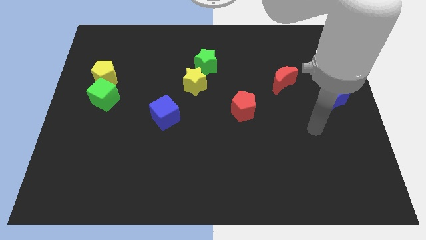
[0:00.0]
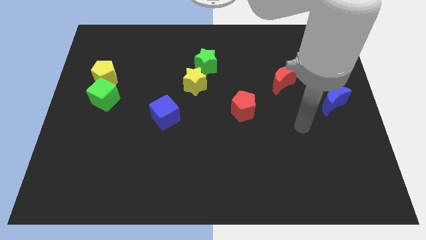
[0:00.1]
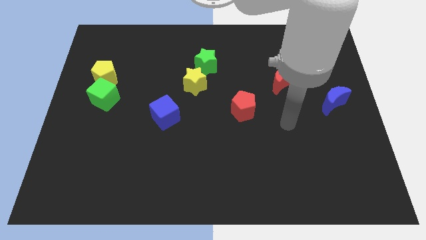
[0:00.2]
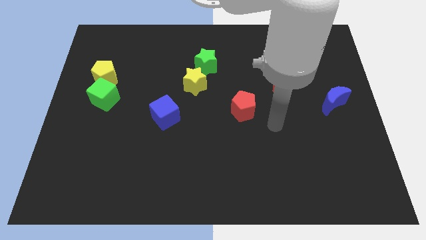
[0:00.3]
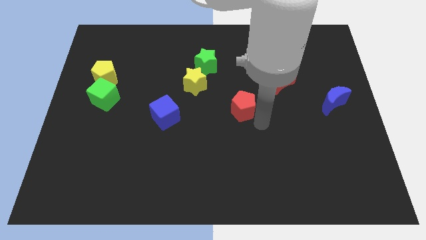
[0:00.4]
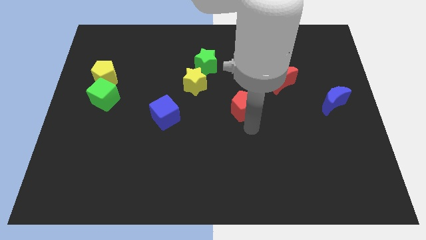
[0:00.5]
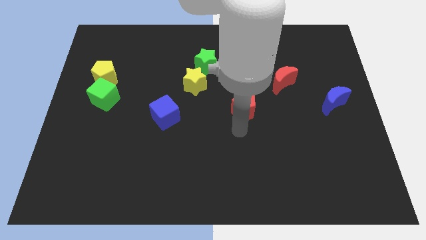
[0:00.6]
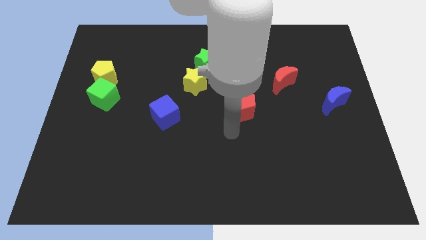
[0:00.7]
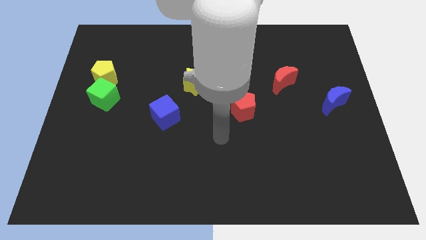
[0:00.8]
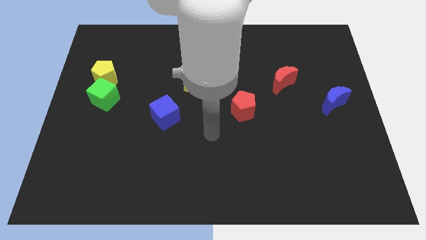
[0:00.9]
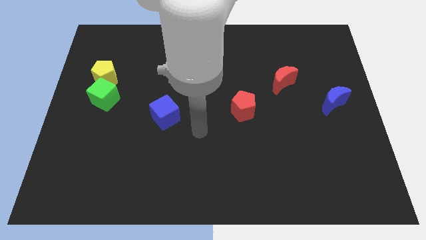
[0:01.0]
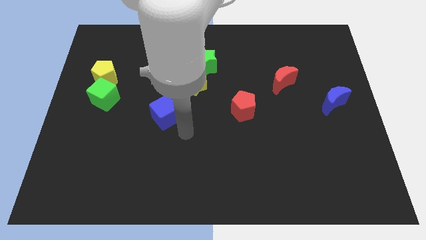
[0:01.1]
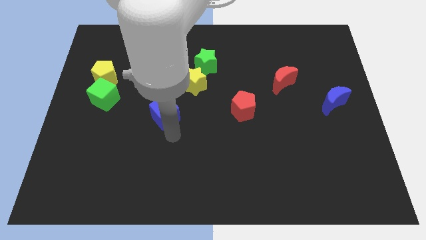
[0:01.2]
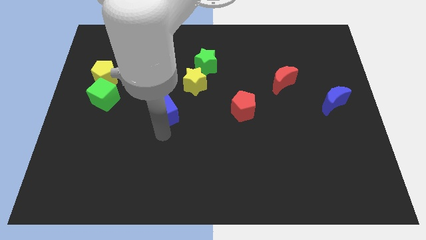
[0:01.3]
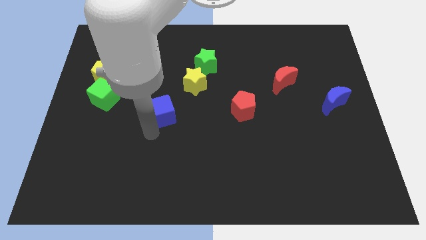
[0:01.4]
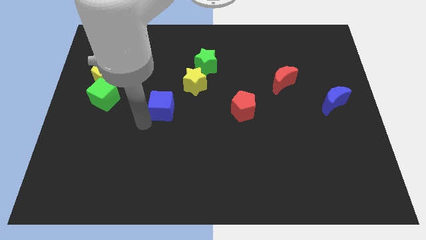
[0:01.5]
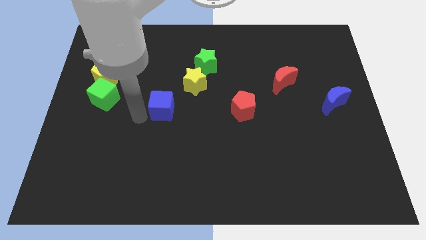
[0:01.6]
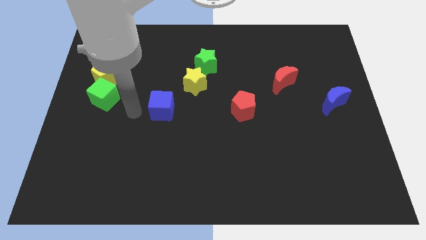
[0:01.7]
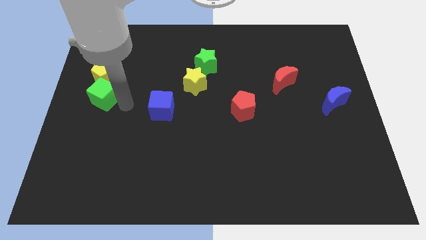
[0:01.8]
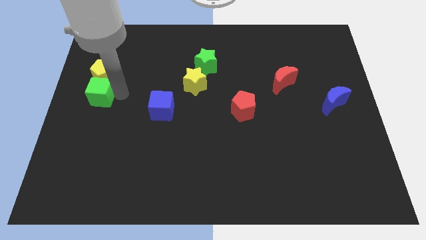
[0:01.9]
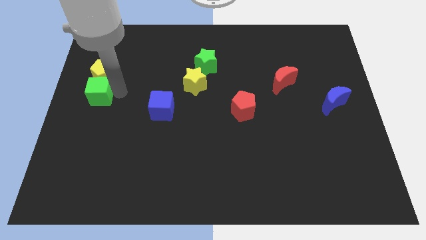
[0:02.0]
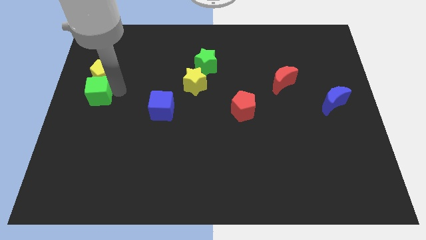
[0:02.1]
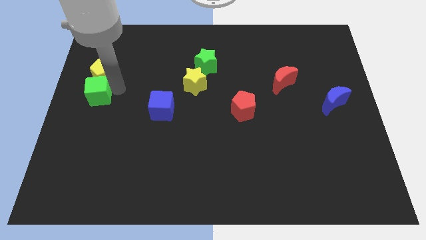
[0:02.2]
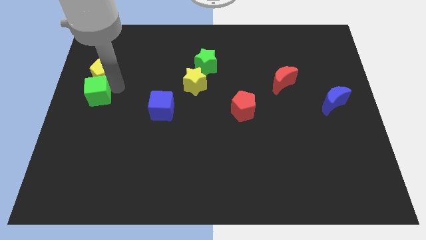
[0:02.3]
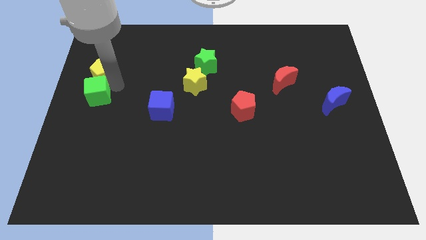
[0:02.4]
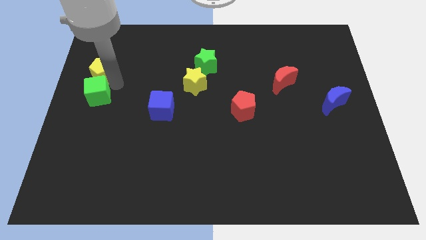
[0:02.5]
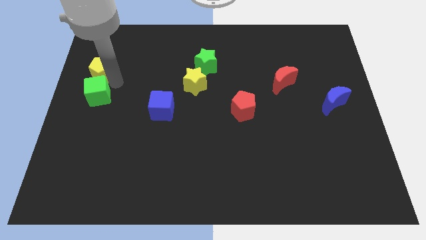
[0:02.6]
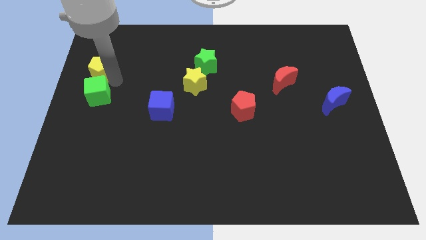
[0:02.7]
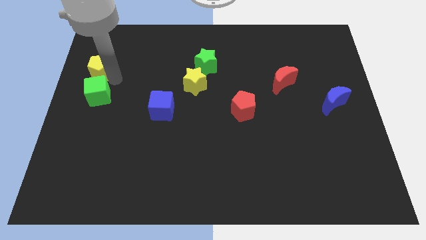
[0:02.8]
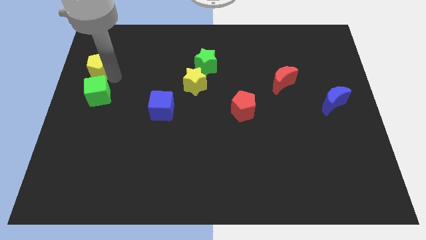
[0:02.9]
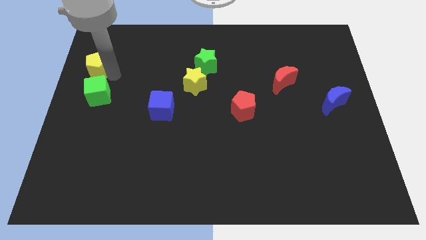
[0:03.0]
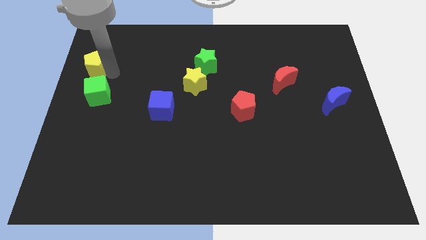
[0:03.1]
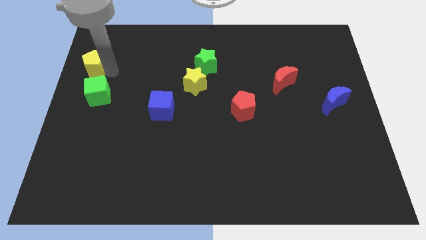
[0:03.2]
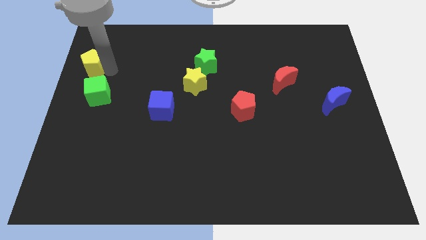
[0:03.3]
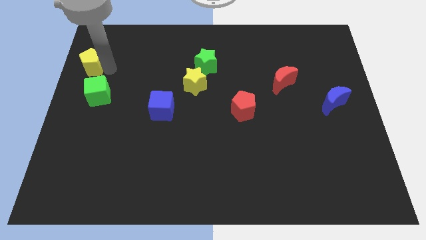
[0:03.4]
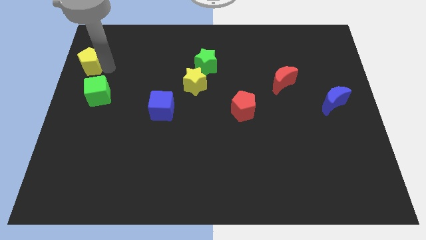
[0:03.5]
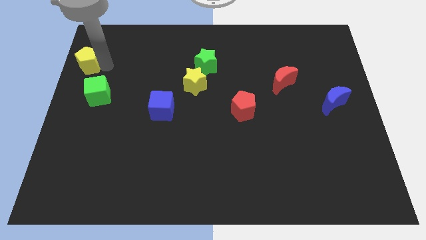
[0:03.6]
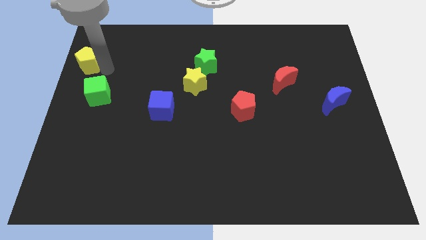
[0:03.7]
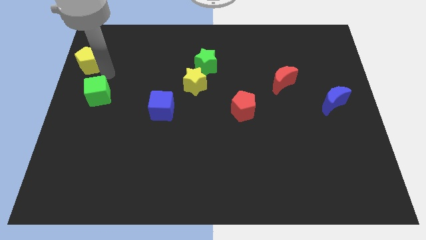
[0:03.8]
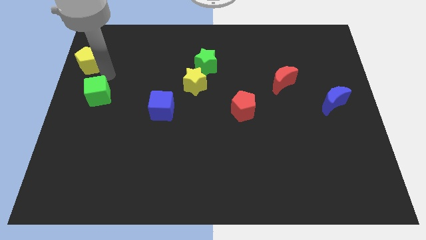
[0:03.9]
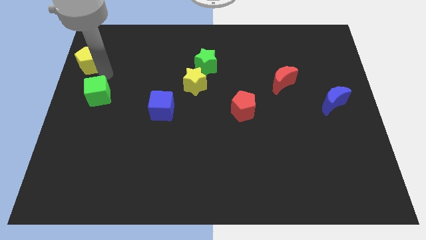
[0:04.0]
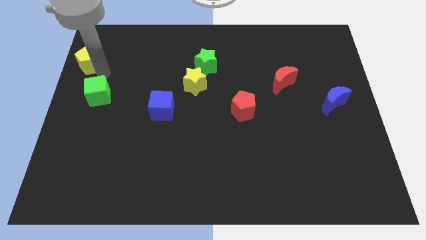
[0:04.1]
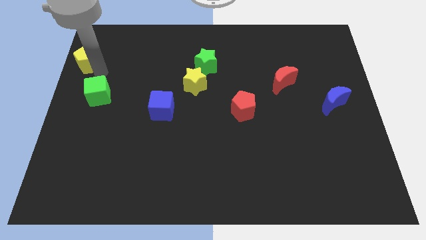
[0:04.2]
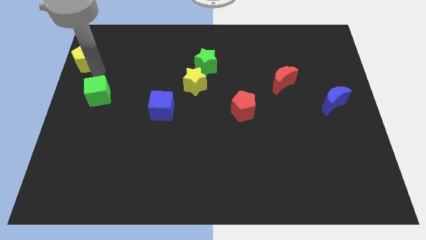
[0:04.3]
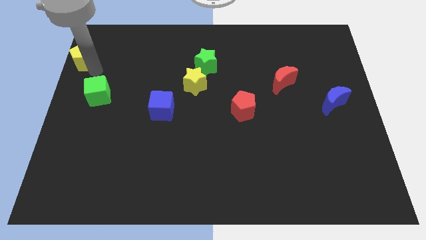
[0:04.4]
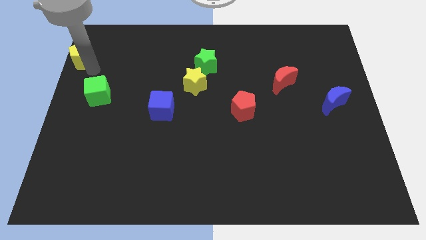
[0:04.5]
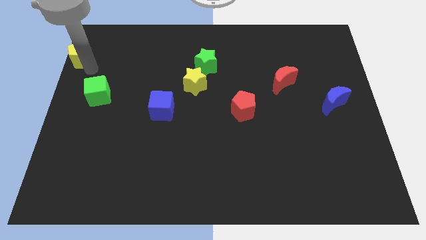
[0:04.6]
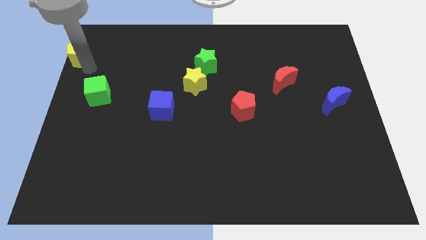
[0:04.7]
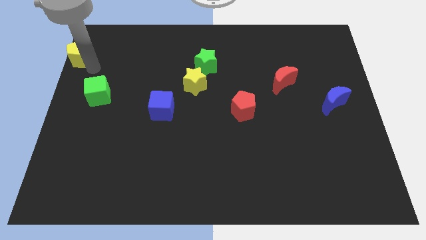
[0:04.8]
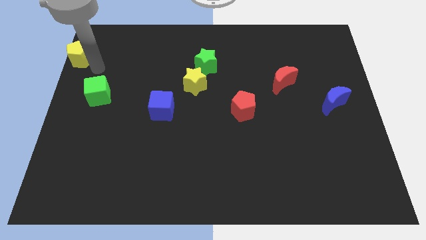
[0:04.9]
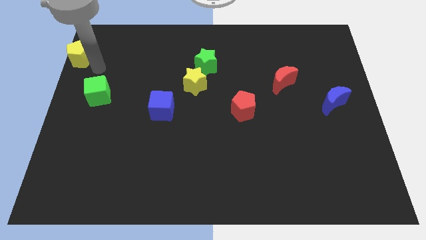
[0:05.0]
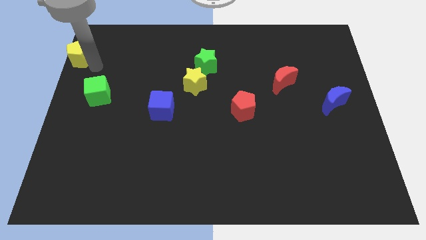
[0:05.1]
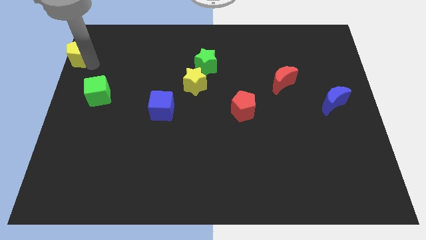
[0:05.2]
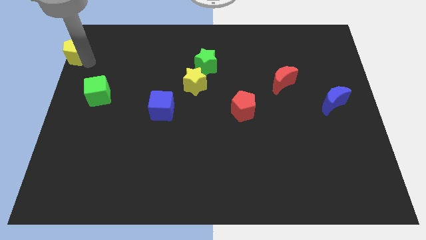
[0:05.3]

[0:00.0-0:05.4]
put the yellow pentagon to the top left of the board

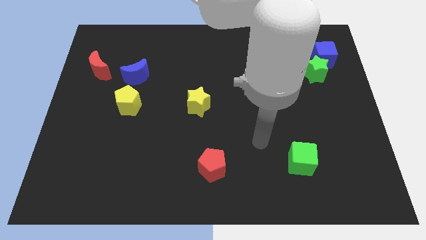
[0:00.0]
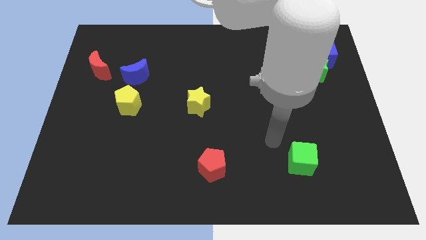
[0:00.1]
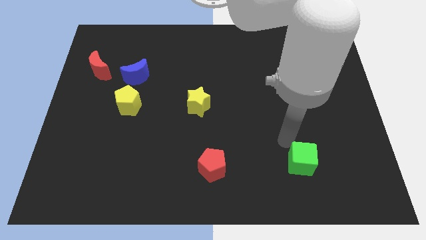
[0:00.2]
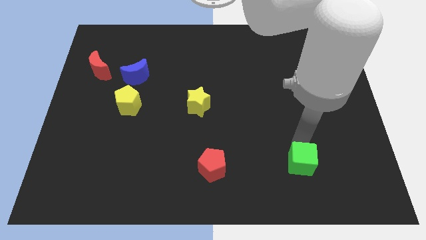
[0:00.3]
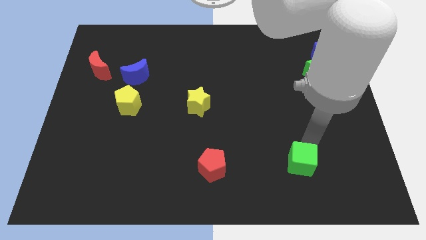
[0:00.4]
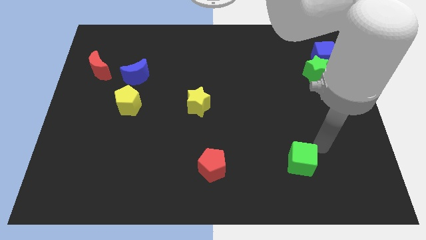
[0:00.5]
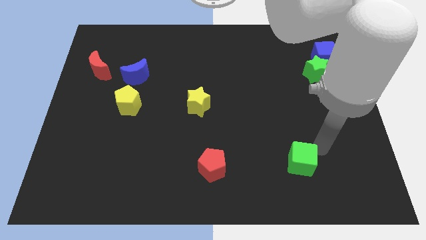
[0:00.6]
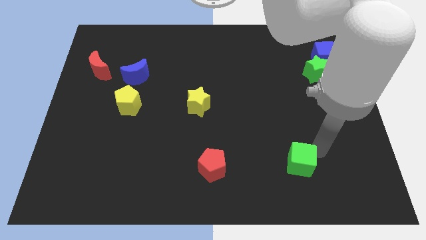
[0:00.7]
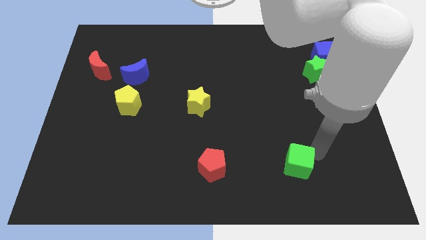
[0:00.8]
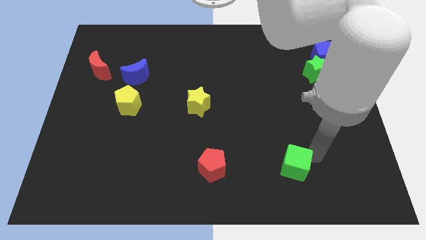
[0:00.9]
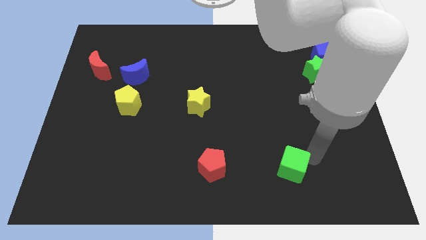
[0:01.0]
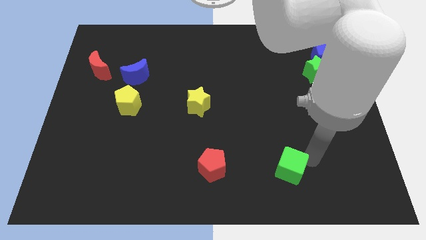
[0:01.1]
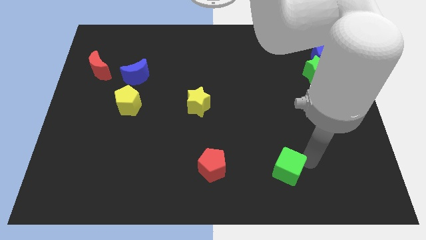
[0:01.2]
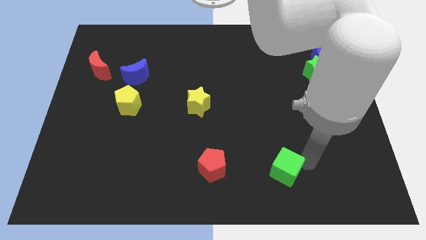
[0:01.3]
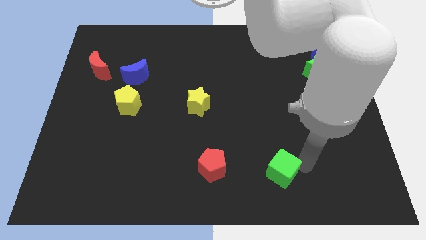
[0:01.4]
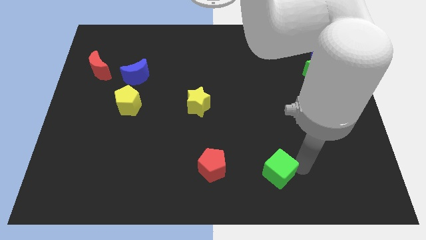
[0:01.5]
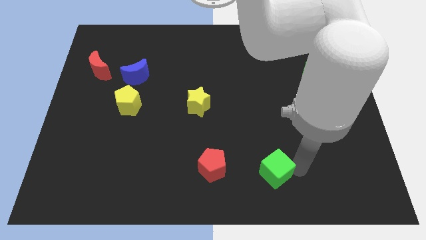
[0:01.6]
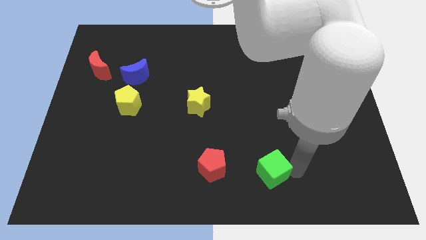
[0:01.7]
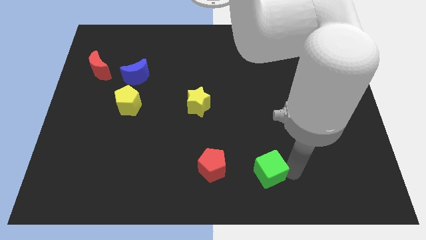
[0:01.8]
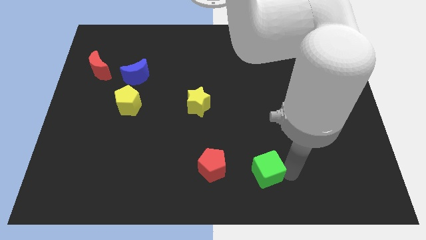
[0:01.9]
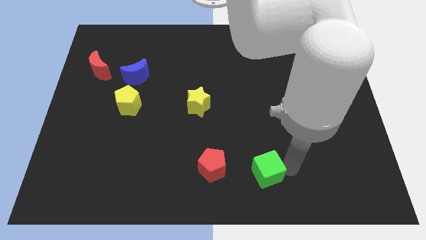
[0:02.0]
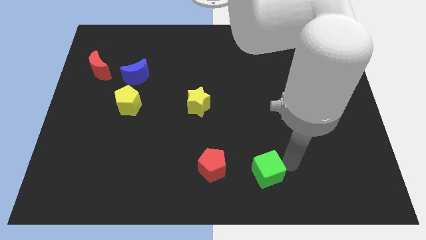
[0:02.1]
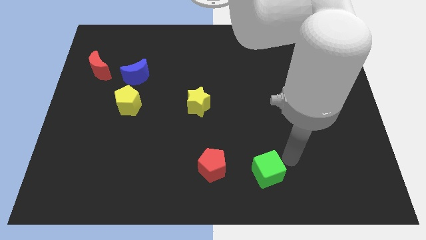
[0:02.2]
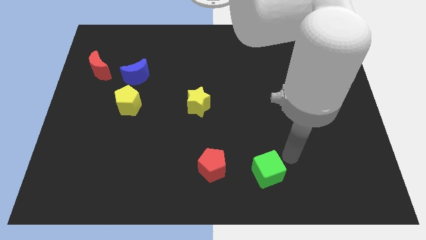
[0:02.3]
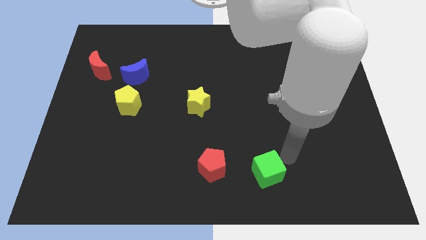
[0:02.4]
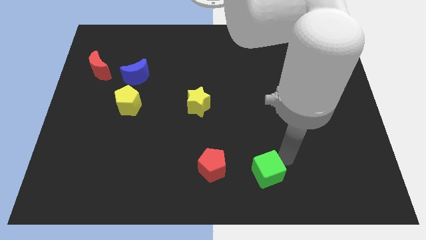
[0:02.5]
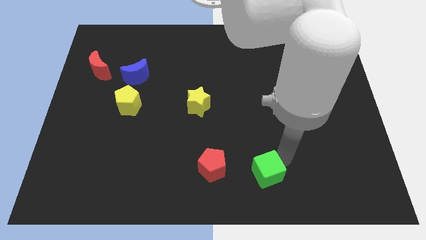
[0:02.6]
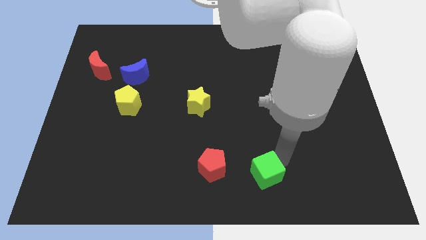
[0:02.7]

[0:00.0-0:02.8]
slide the green cube to the bottom
